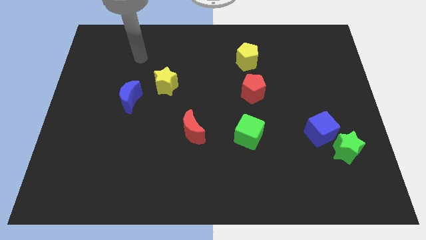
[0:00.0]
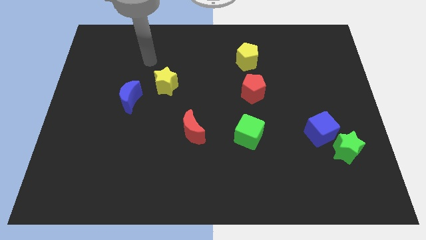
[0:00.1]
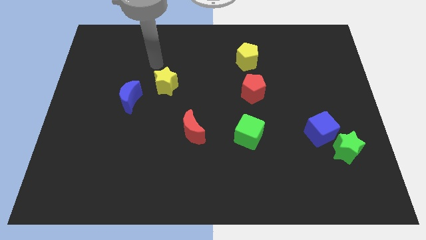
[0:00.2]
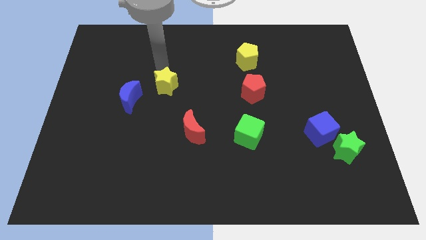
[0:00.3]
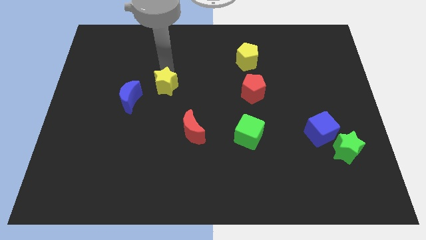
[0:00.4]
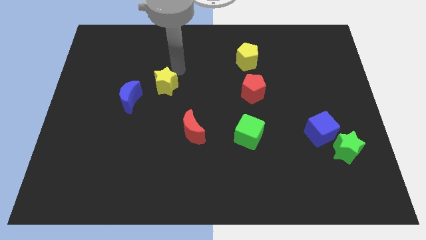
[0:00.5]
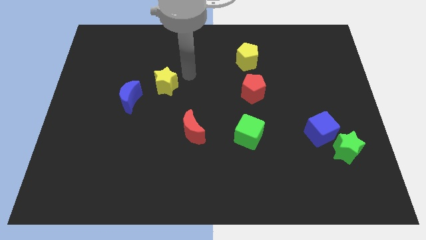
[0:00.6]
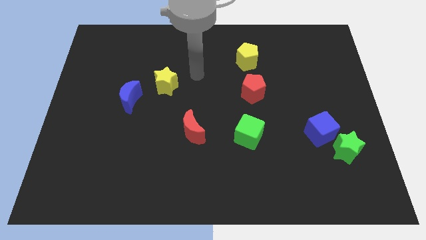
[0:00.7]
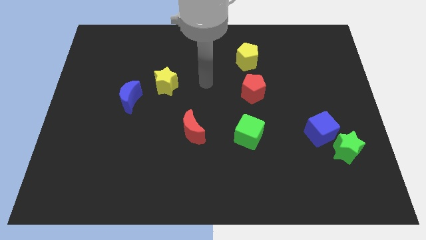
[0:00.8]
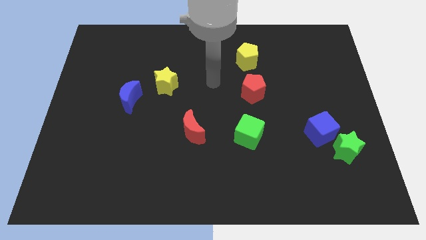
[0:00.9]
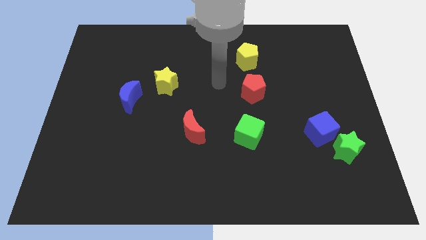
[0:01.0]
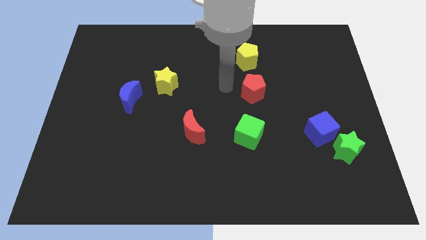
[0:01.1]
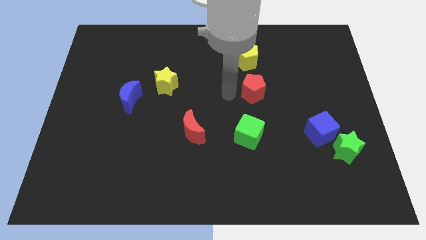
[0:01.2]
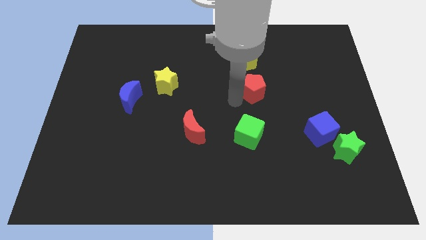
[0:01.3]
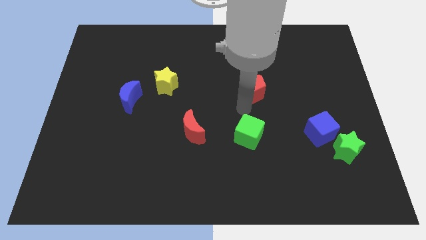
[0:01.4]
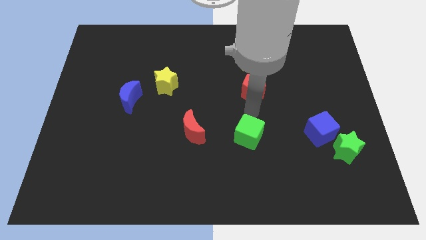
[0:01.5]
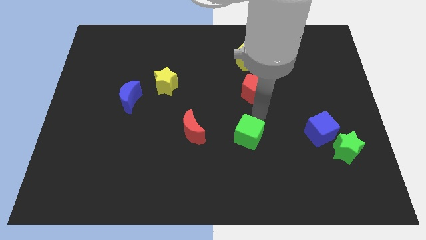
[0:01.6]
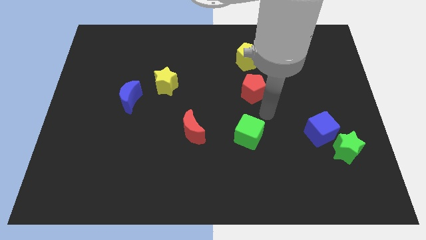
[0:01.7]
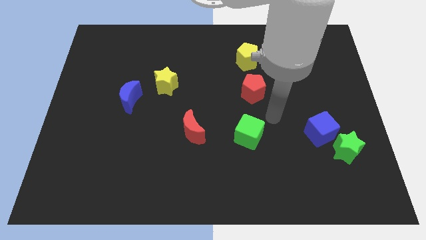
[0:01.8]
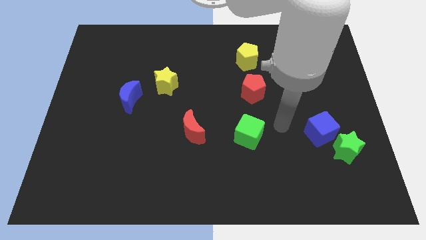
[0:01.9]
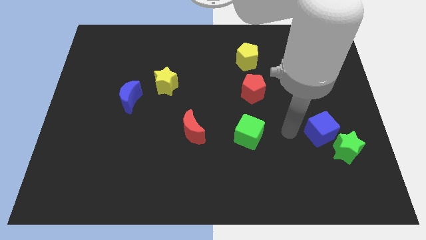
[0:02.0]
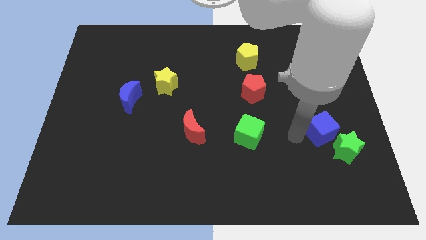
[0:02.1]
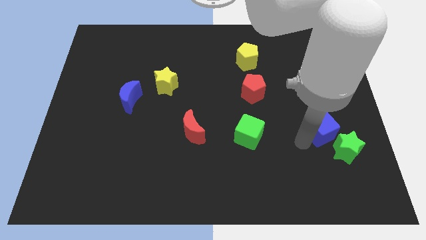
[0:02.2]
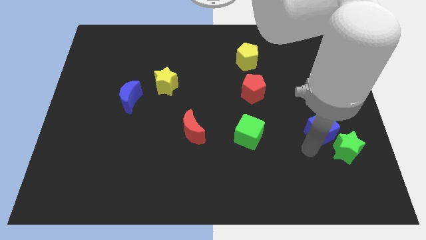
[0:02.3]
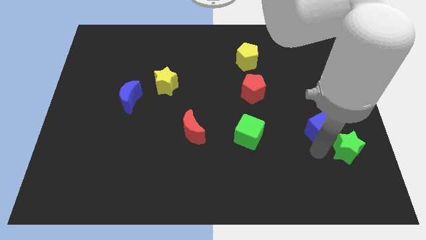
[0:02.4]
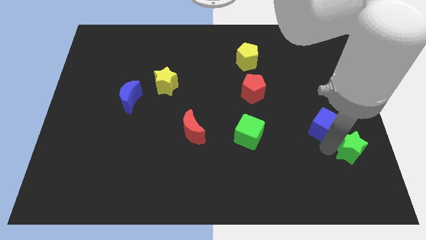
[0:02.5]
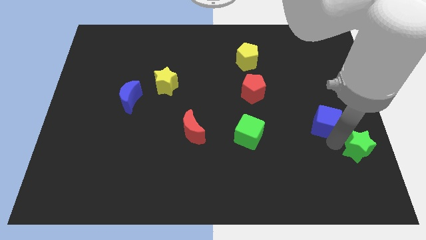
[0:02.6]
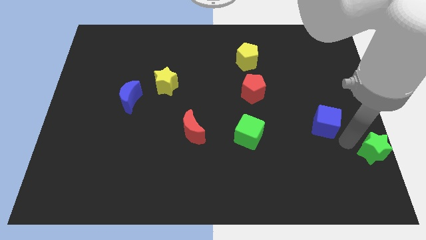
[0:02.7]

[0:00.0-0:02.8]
separate the blue cube from the green star

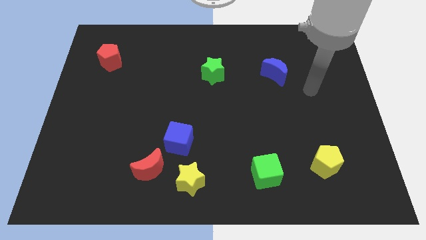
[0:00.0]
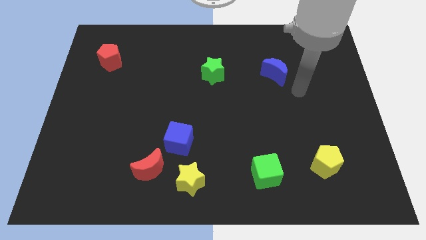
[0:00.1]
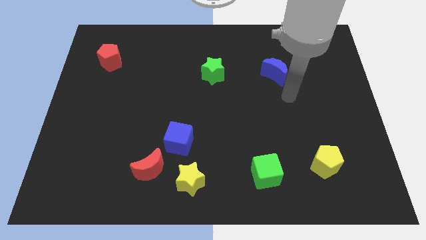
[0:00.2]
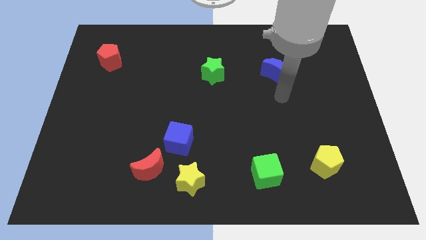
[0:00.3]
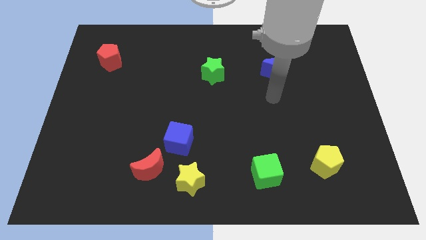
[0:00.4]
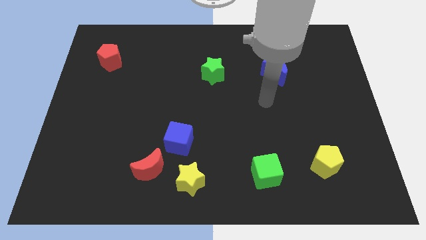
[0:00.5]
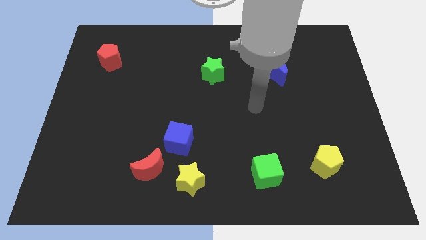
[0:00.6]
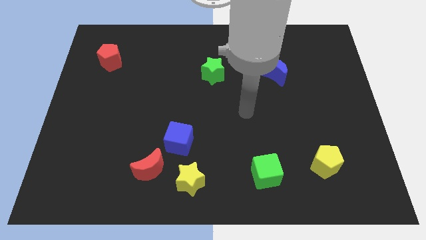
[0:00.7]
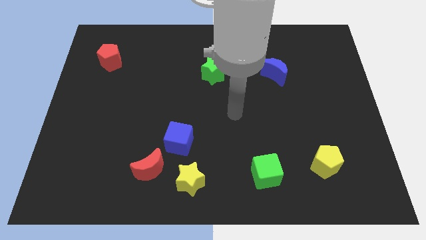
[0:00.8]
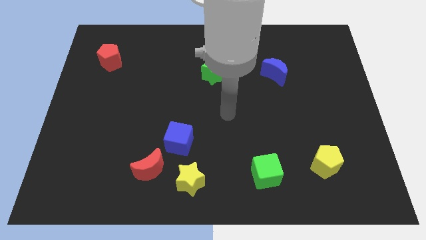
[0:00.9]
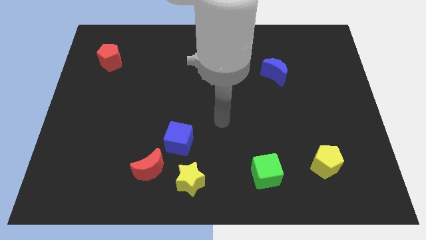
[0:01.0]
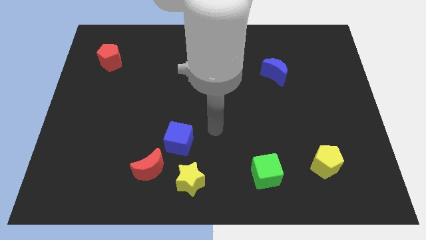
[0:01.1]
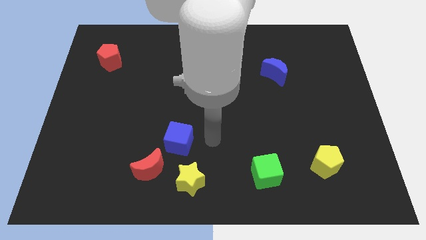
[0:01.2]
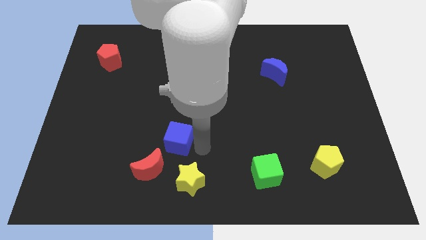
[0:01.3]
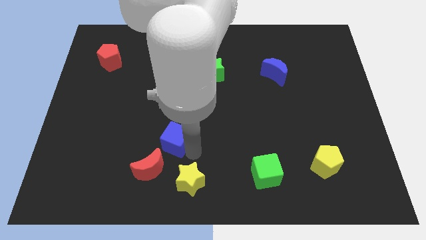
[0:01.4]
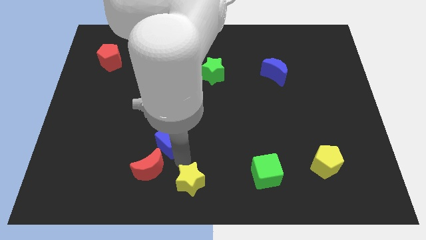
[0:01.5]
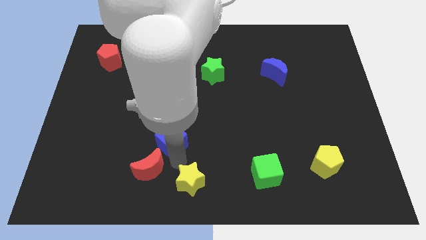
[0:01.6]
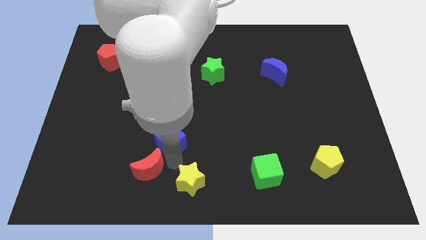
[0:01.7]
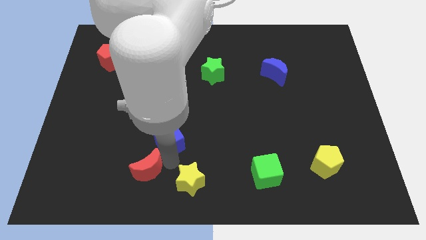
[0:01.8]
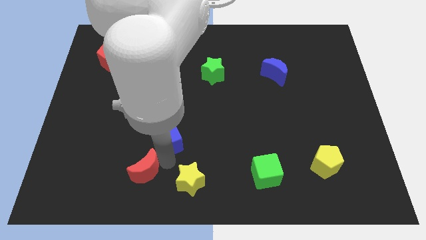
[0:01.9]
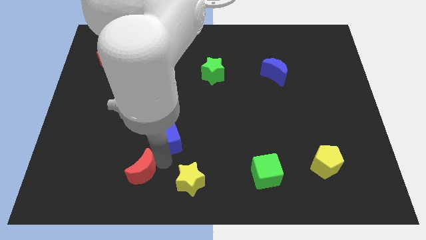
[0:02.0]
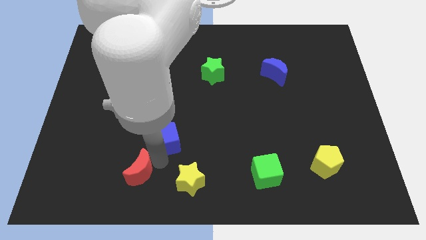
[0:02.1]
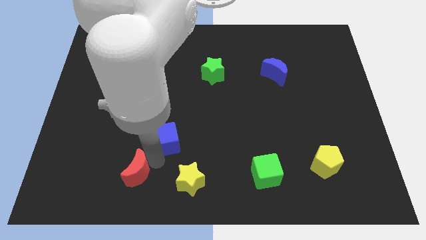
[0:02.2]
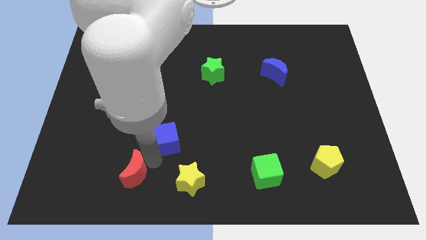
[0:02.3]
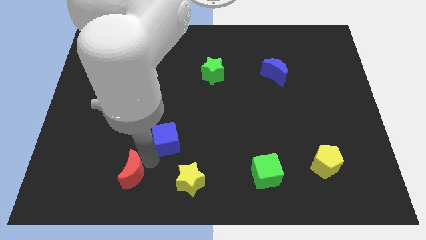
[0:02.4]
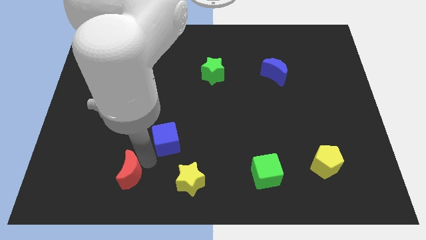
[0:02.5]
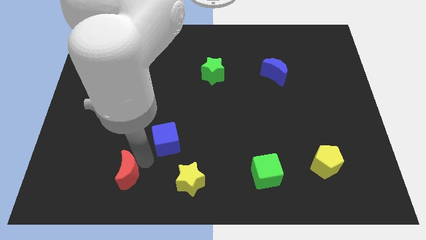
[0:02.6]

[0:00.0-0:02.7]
move the red moon away from the blue cube and yellow star

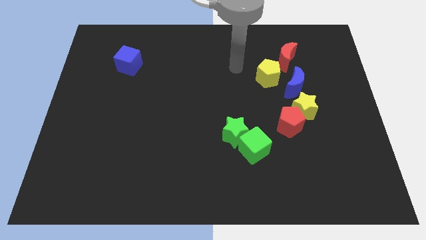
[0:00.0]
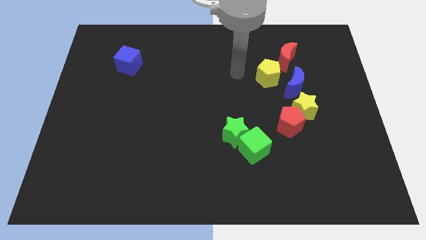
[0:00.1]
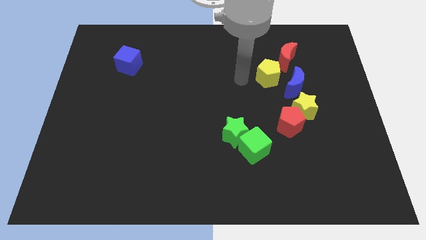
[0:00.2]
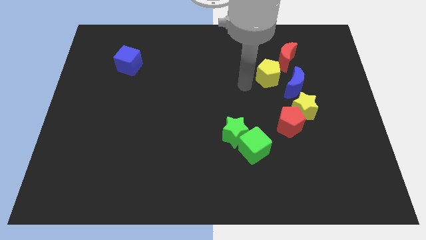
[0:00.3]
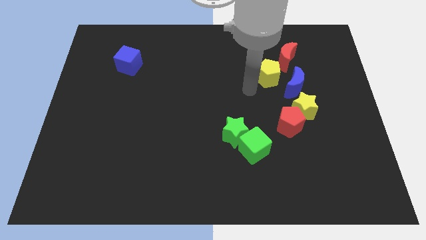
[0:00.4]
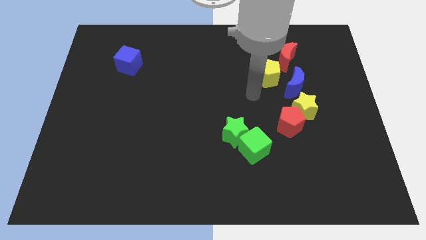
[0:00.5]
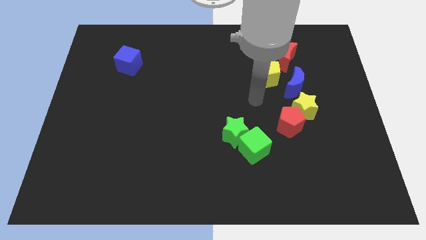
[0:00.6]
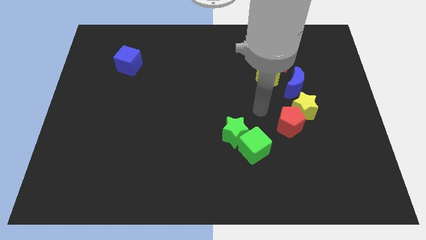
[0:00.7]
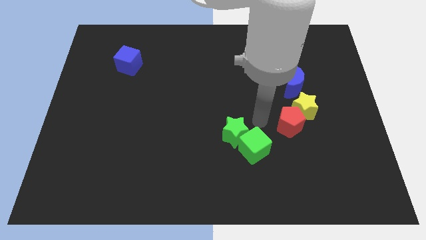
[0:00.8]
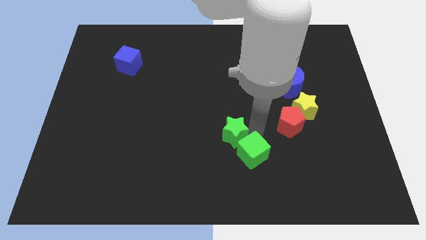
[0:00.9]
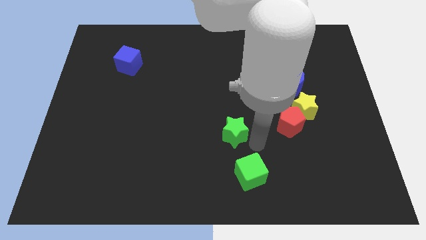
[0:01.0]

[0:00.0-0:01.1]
move the green star away from the green cube

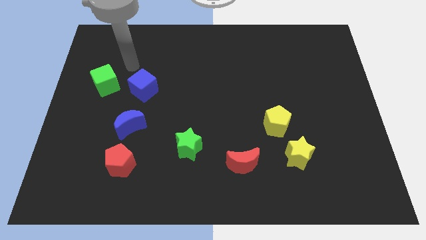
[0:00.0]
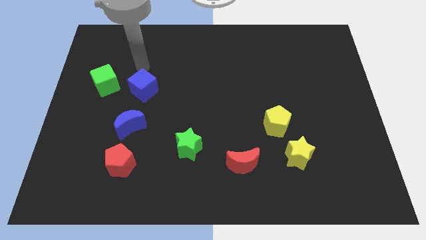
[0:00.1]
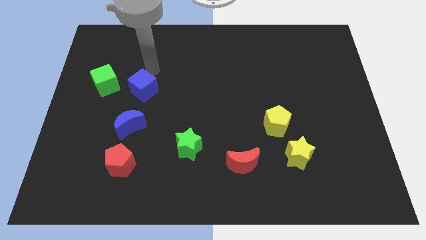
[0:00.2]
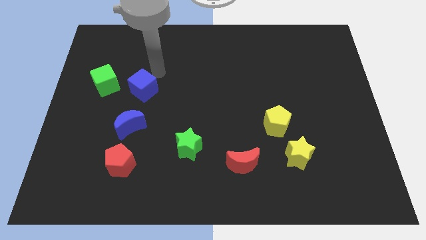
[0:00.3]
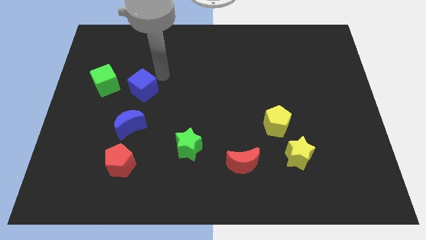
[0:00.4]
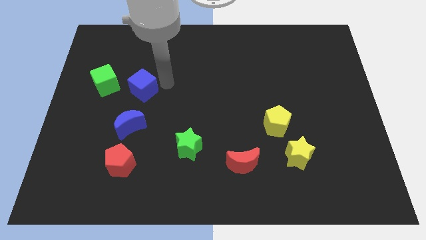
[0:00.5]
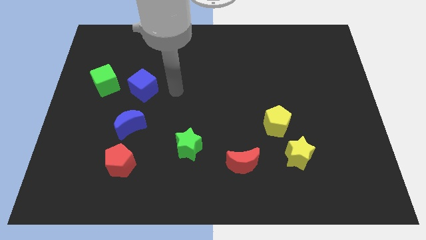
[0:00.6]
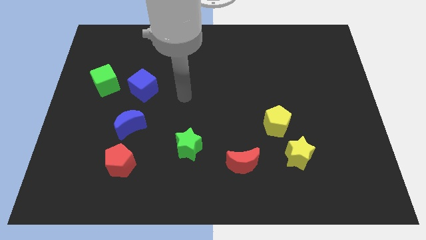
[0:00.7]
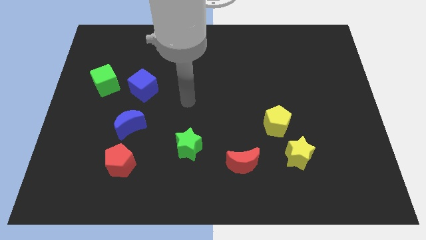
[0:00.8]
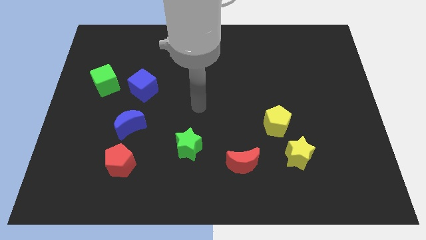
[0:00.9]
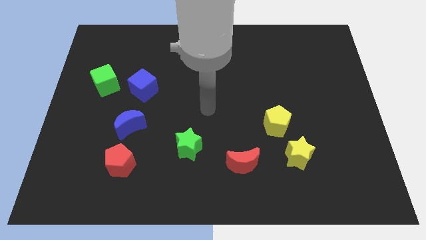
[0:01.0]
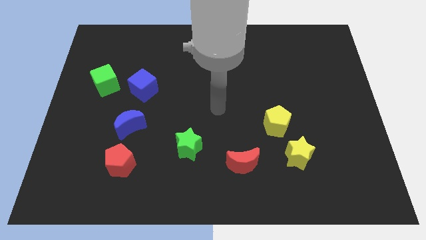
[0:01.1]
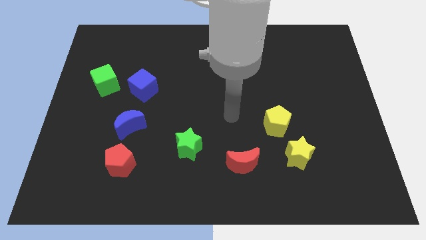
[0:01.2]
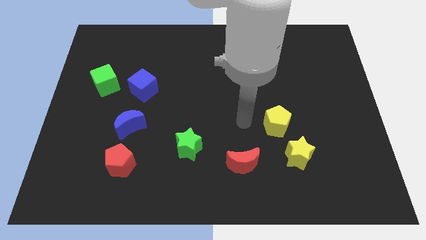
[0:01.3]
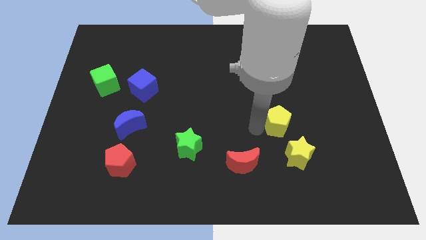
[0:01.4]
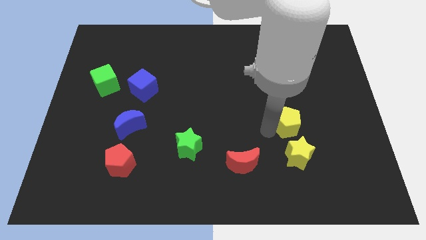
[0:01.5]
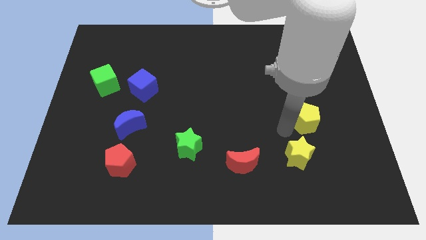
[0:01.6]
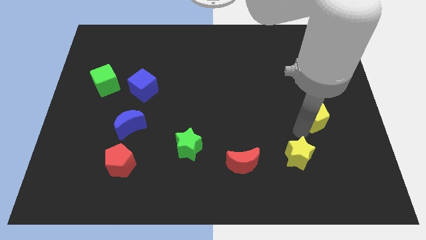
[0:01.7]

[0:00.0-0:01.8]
separate the yellow star from the yellow pentagon

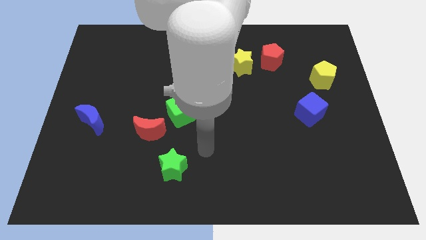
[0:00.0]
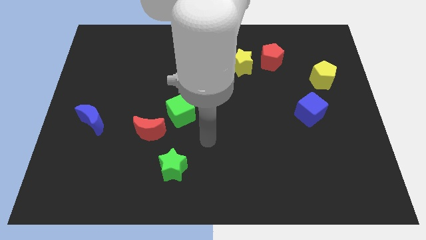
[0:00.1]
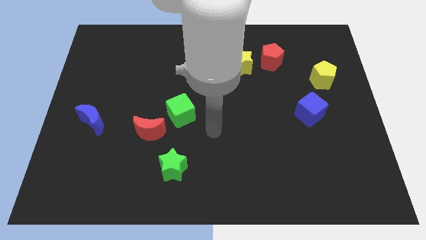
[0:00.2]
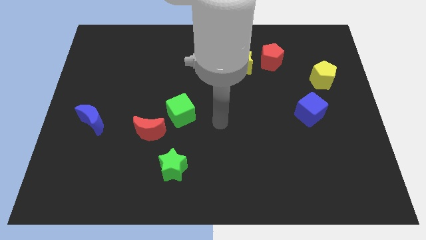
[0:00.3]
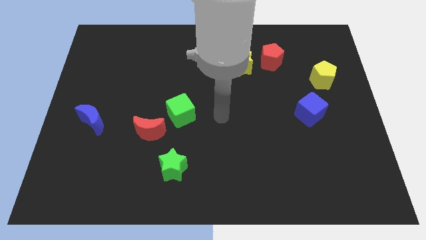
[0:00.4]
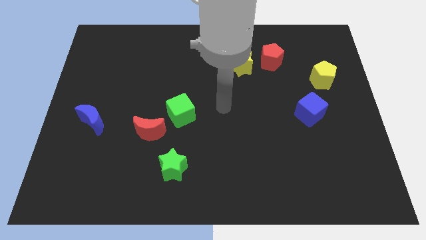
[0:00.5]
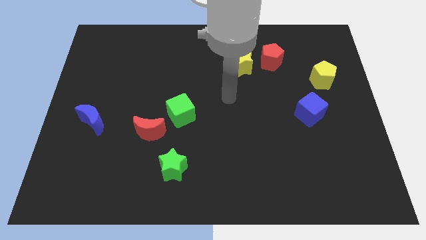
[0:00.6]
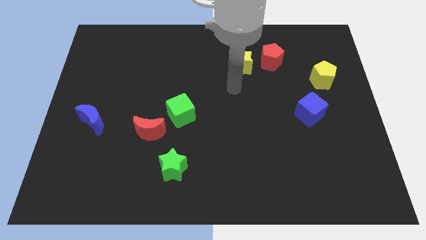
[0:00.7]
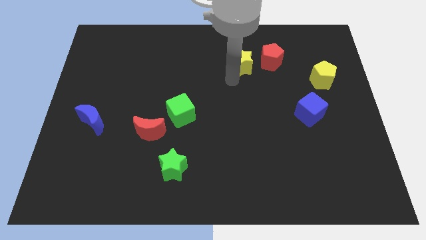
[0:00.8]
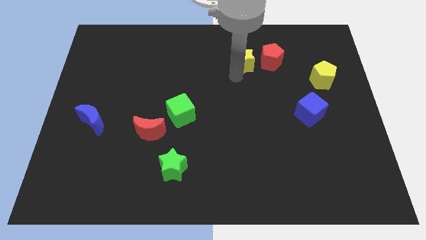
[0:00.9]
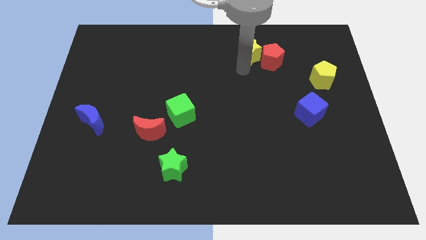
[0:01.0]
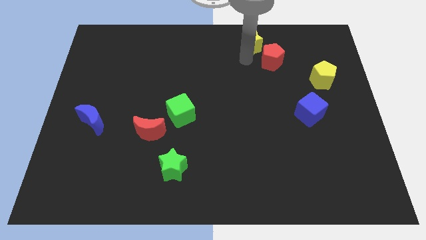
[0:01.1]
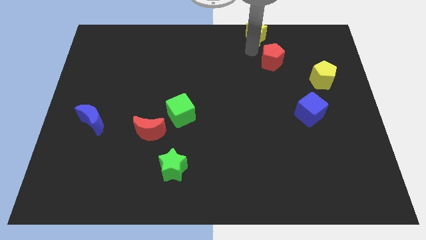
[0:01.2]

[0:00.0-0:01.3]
pull the red pentagon apart from the yellow star
